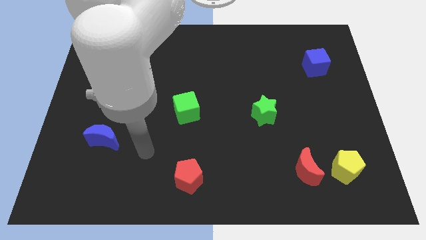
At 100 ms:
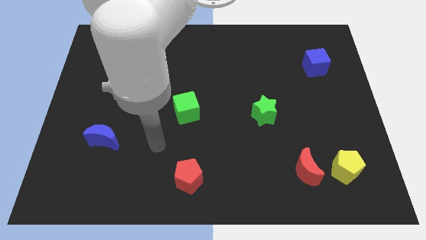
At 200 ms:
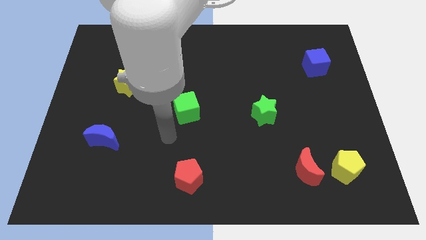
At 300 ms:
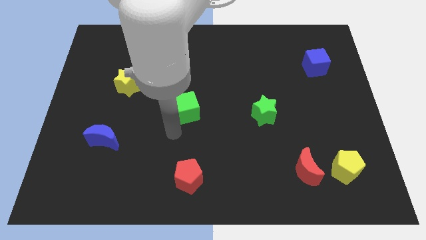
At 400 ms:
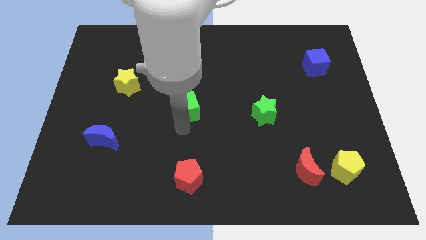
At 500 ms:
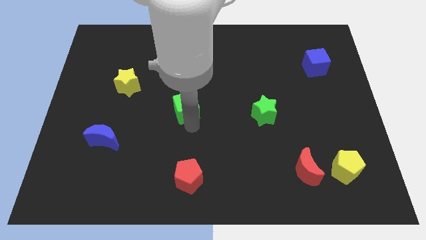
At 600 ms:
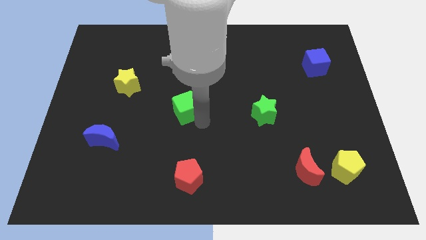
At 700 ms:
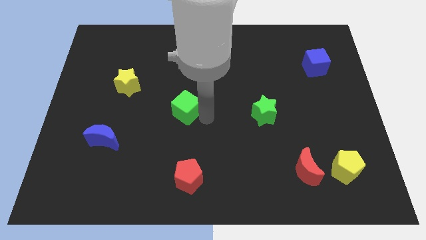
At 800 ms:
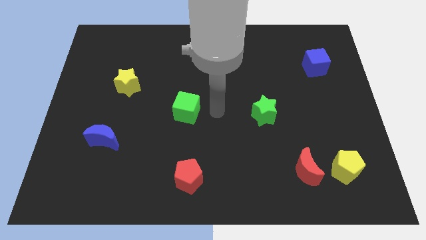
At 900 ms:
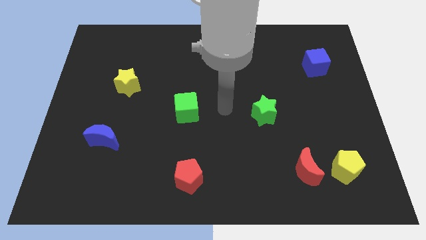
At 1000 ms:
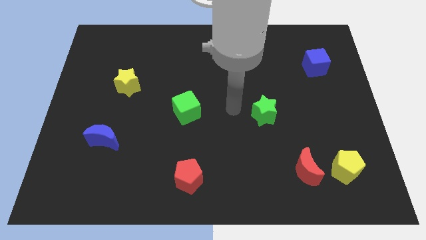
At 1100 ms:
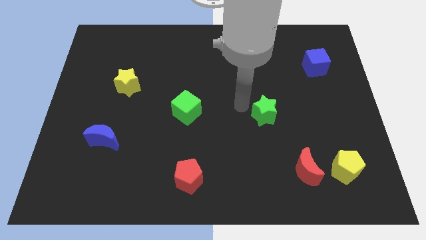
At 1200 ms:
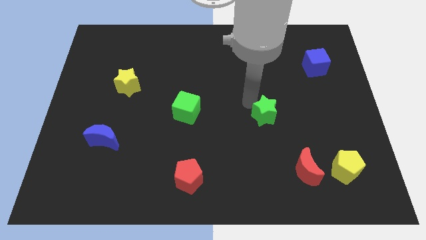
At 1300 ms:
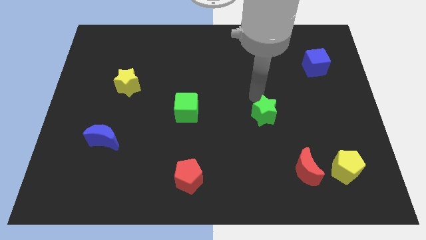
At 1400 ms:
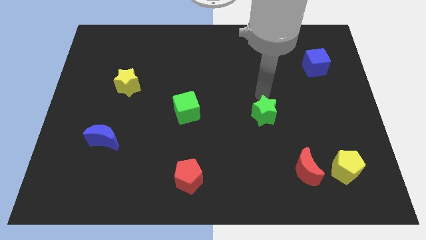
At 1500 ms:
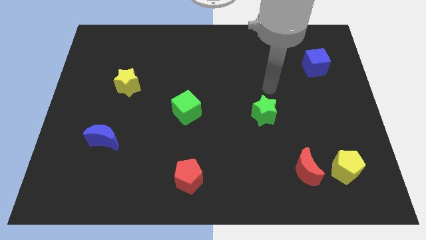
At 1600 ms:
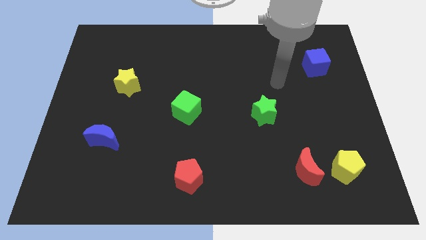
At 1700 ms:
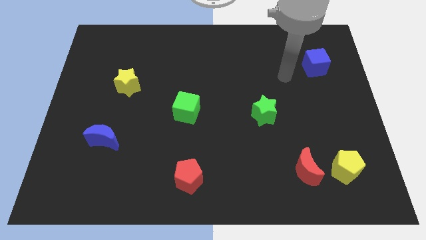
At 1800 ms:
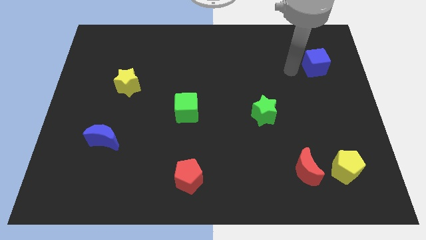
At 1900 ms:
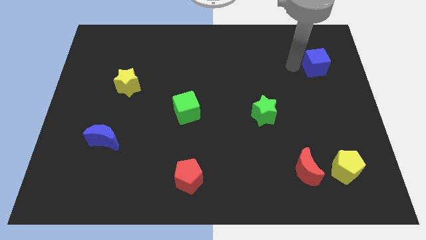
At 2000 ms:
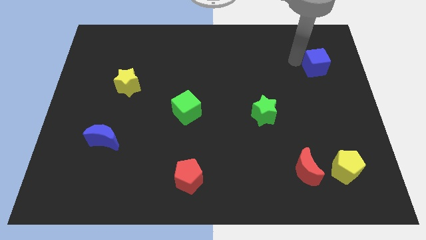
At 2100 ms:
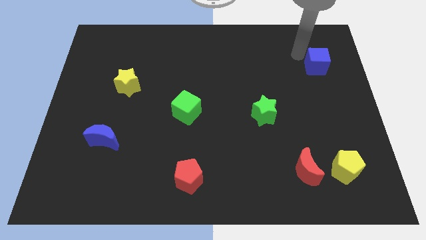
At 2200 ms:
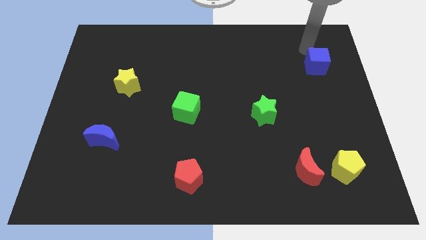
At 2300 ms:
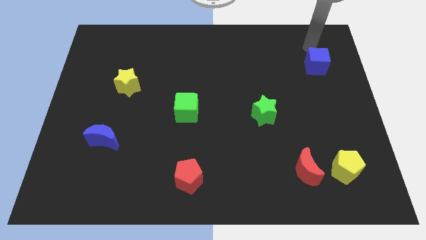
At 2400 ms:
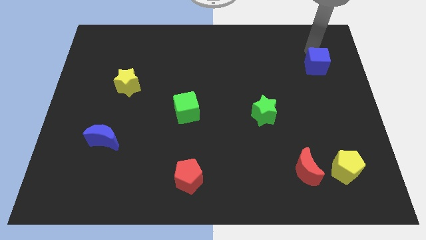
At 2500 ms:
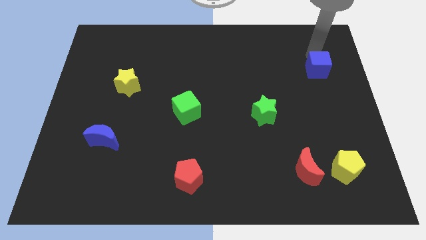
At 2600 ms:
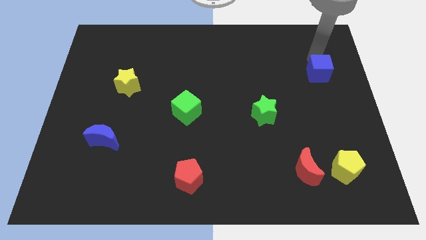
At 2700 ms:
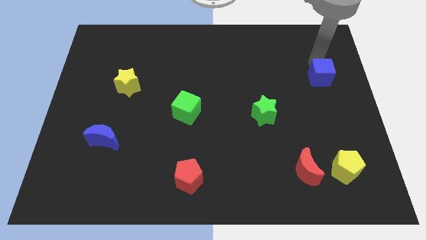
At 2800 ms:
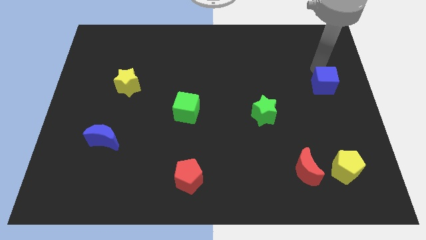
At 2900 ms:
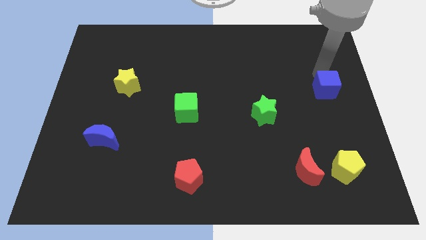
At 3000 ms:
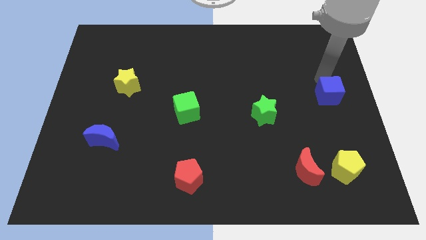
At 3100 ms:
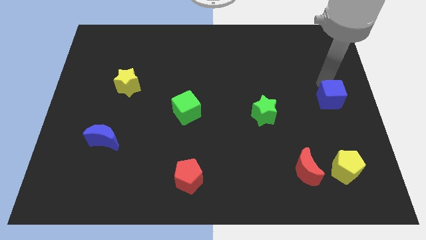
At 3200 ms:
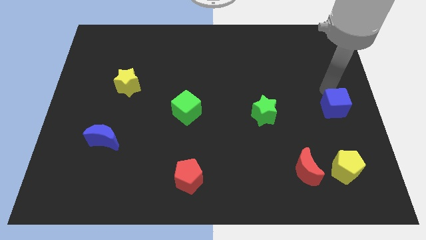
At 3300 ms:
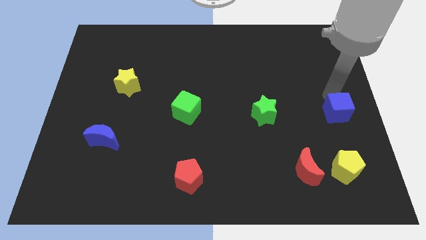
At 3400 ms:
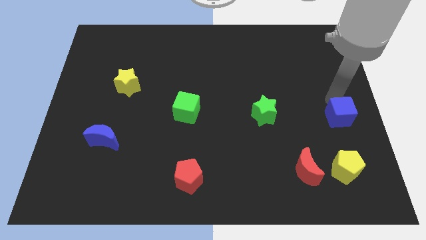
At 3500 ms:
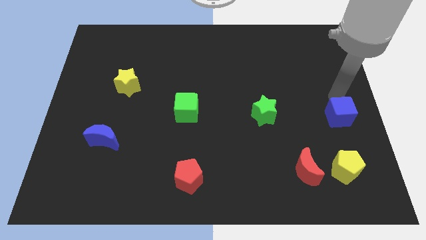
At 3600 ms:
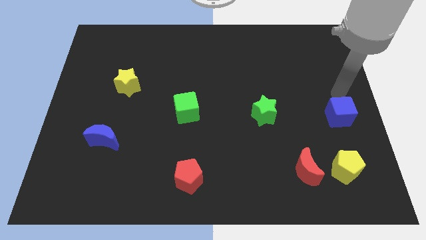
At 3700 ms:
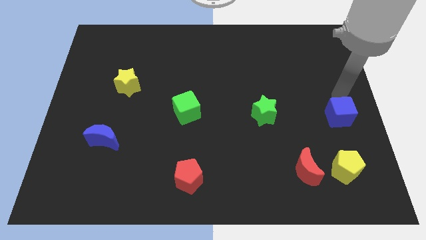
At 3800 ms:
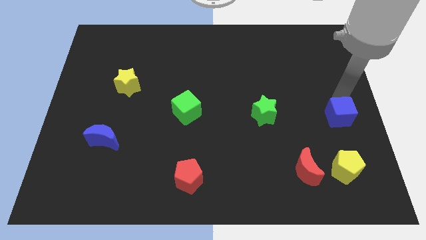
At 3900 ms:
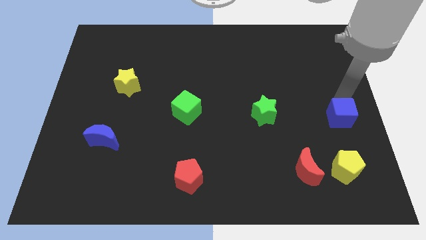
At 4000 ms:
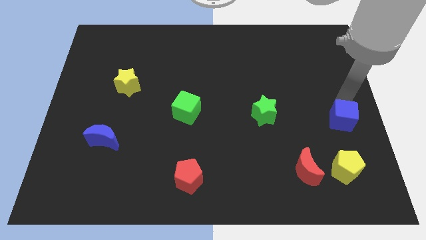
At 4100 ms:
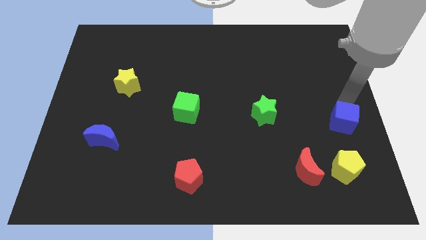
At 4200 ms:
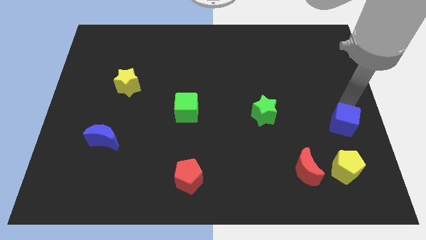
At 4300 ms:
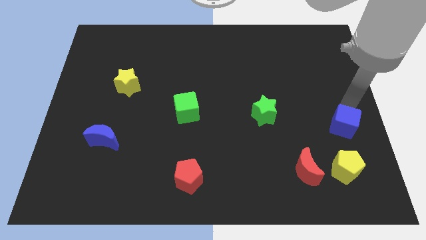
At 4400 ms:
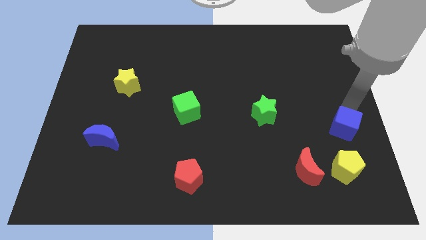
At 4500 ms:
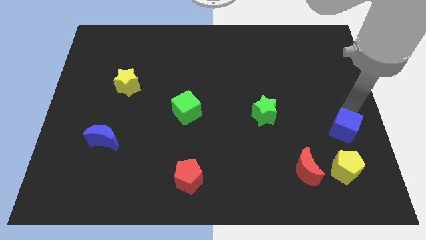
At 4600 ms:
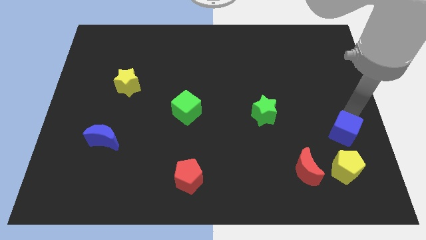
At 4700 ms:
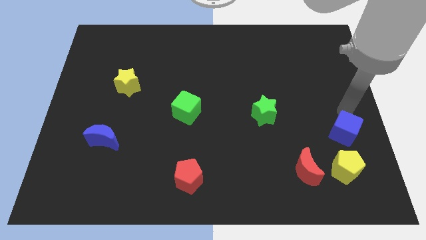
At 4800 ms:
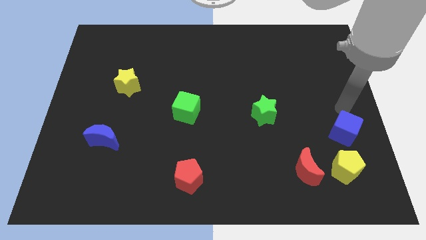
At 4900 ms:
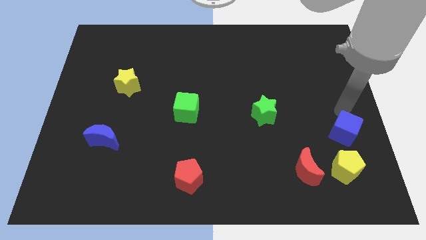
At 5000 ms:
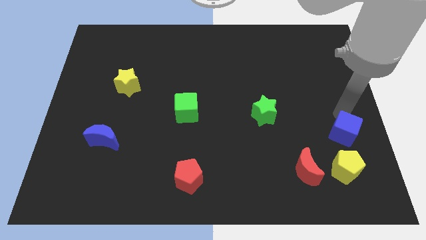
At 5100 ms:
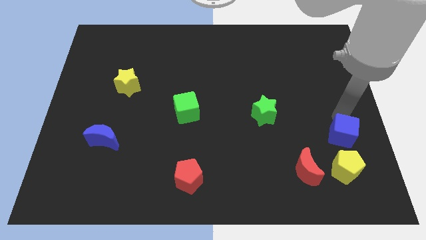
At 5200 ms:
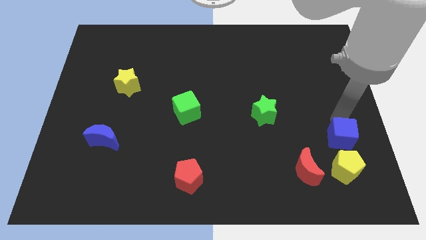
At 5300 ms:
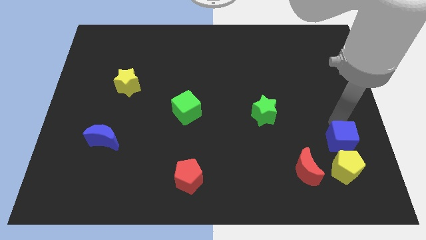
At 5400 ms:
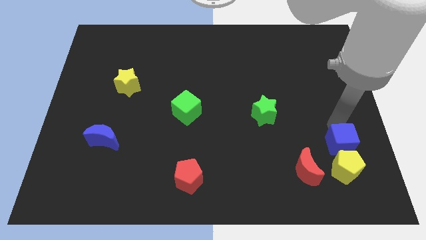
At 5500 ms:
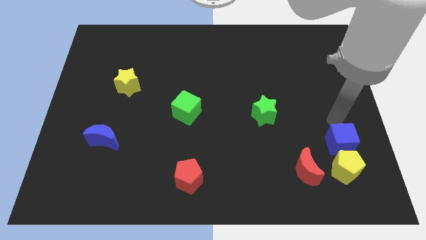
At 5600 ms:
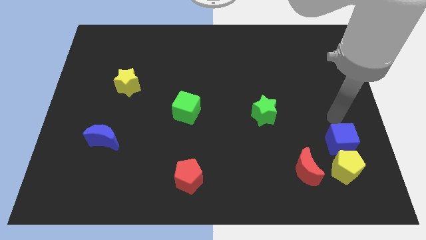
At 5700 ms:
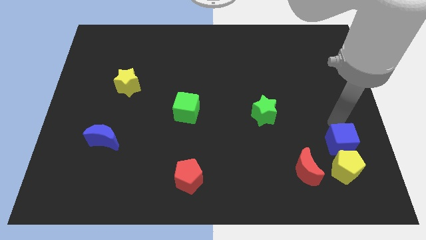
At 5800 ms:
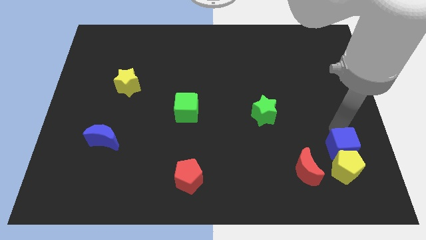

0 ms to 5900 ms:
push the blue cube to the yellow pentagon

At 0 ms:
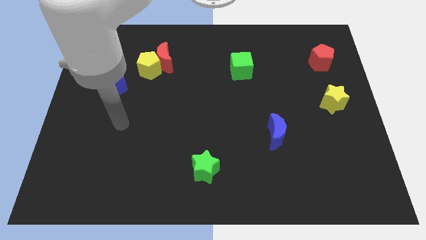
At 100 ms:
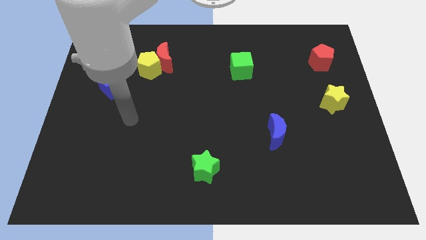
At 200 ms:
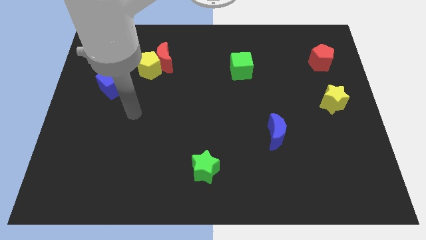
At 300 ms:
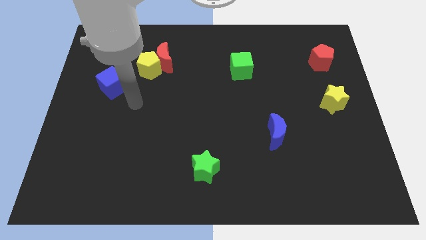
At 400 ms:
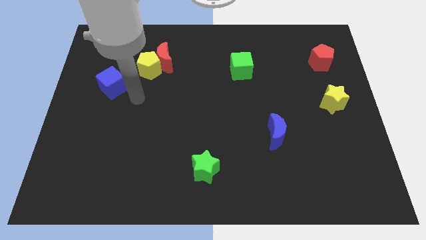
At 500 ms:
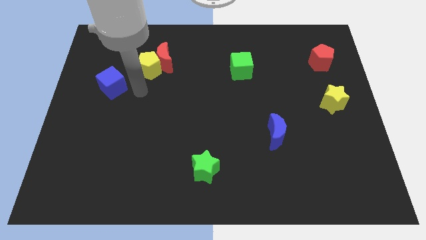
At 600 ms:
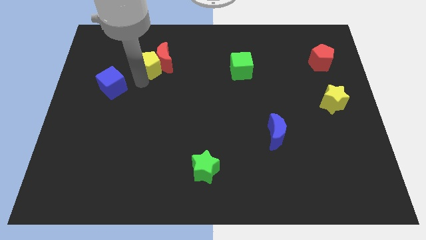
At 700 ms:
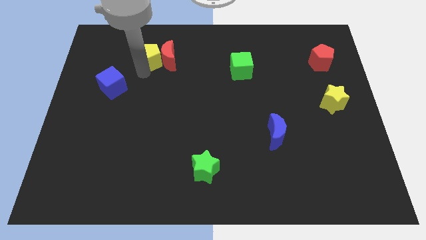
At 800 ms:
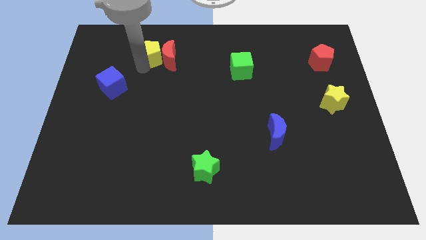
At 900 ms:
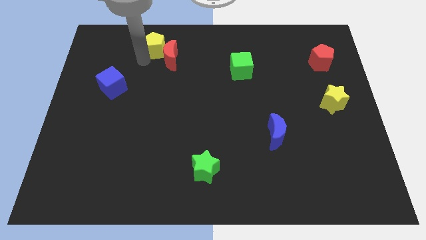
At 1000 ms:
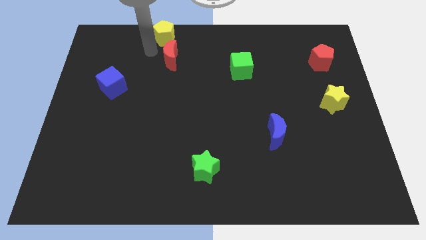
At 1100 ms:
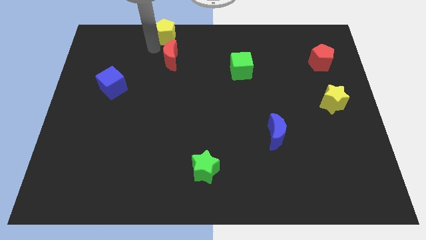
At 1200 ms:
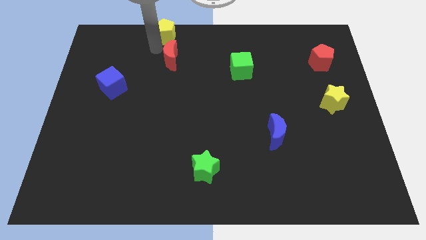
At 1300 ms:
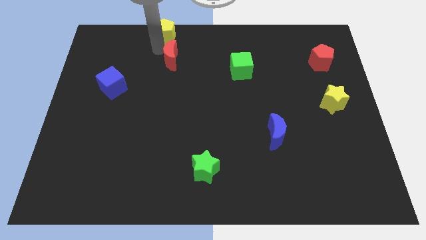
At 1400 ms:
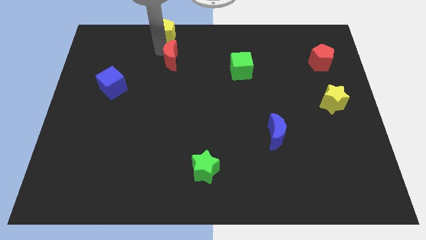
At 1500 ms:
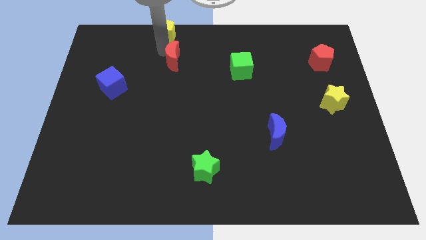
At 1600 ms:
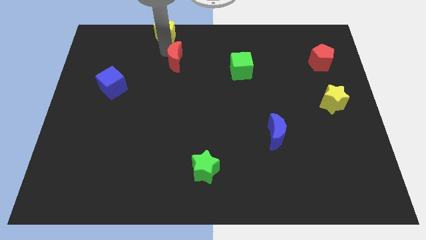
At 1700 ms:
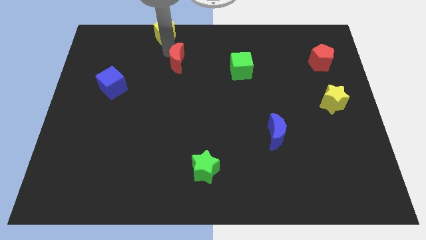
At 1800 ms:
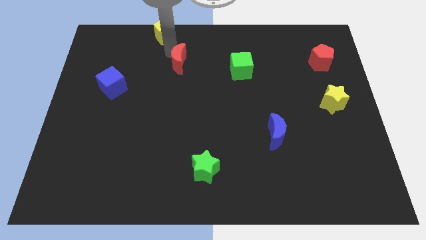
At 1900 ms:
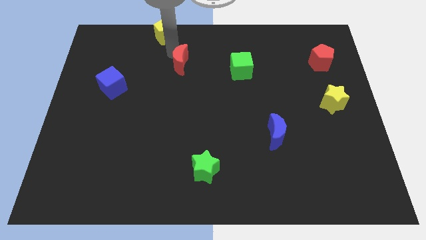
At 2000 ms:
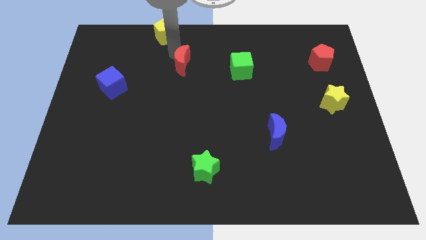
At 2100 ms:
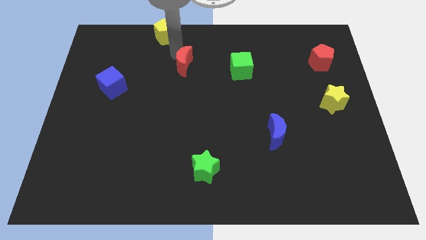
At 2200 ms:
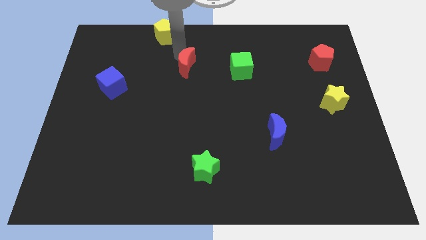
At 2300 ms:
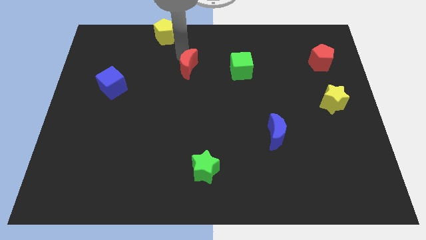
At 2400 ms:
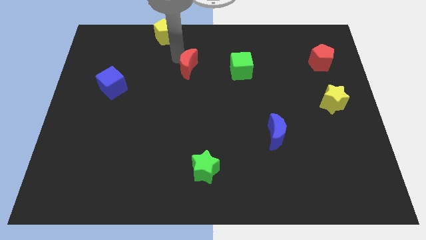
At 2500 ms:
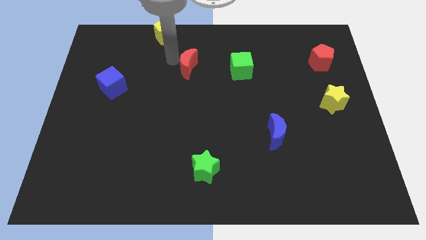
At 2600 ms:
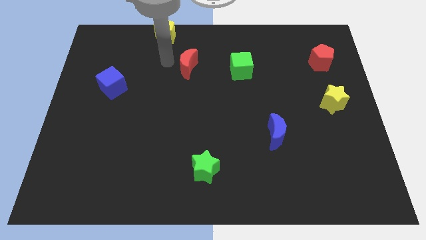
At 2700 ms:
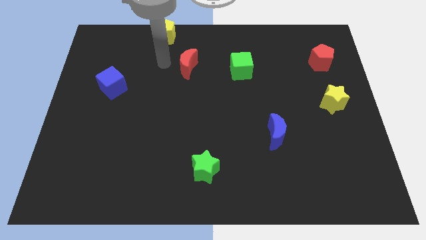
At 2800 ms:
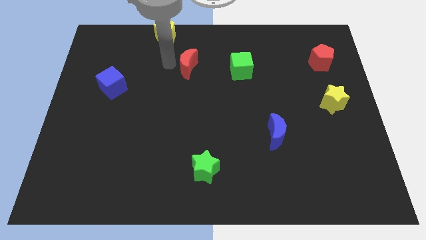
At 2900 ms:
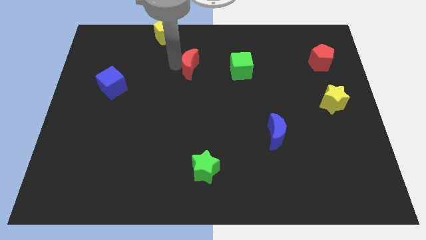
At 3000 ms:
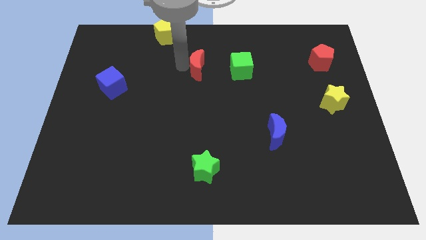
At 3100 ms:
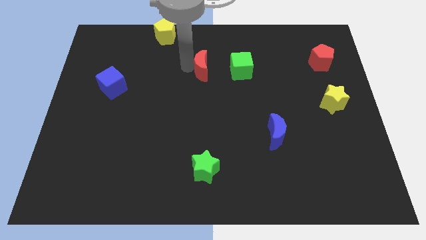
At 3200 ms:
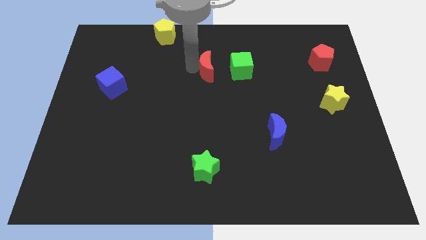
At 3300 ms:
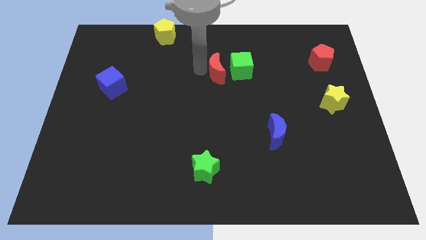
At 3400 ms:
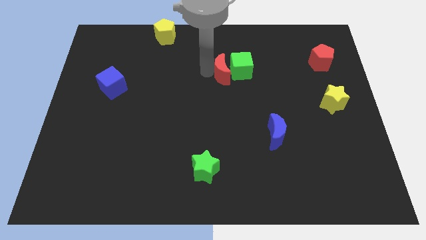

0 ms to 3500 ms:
push the red moon close to the green cube
